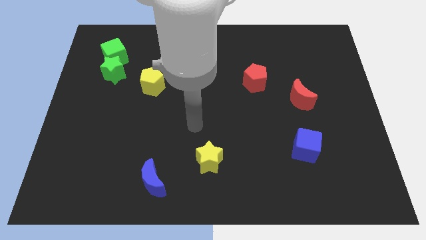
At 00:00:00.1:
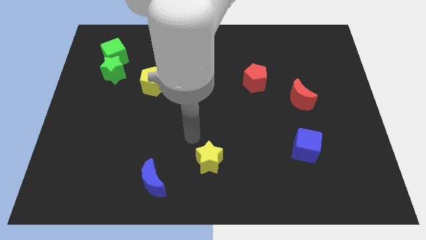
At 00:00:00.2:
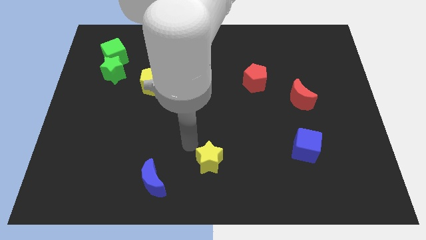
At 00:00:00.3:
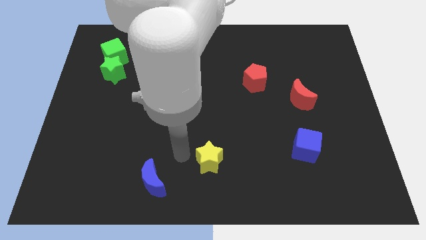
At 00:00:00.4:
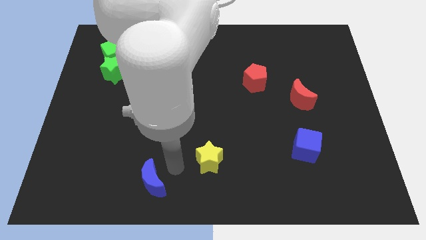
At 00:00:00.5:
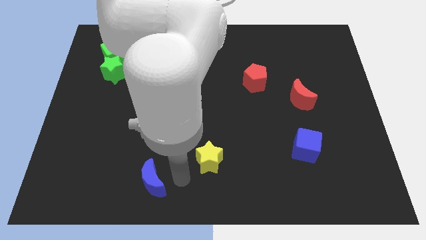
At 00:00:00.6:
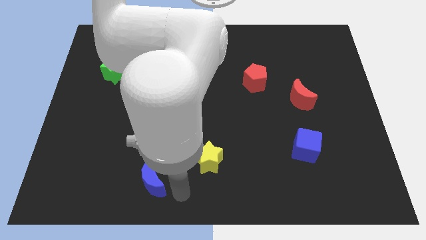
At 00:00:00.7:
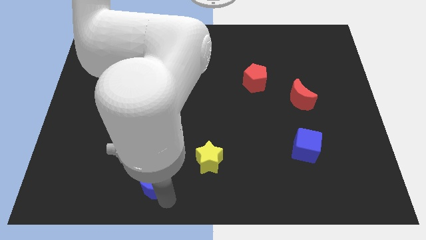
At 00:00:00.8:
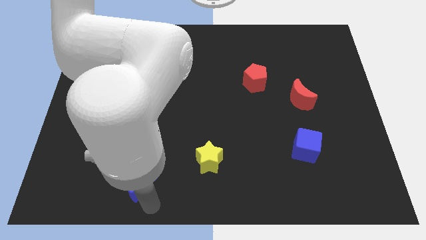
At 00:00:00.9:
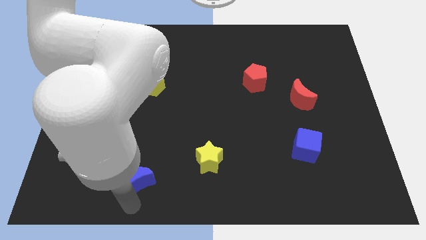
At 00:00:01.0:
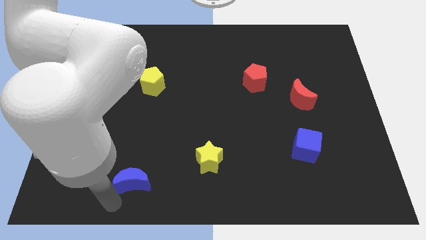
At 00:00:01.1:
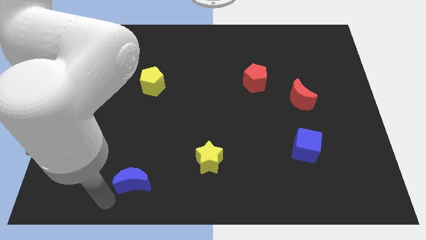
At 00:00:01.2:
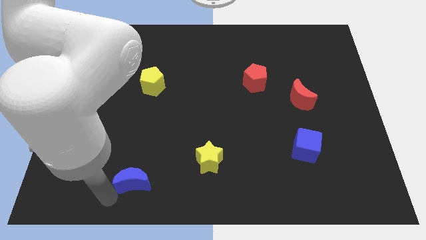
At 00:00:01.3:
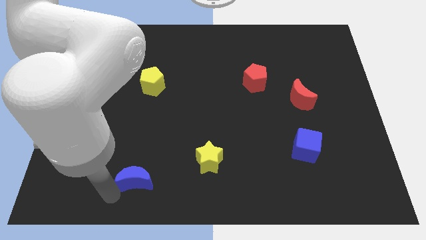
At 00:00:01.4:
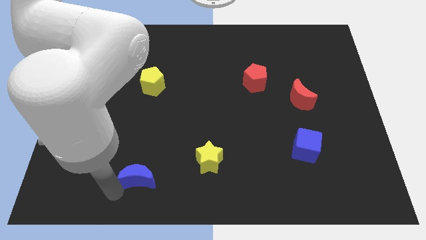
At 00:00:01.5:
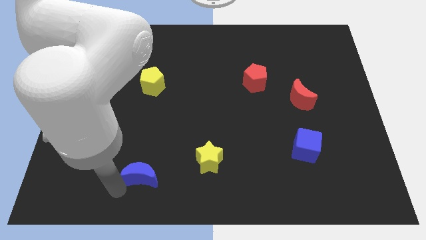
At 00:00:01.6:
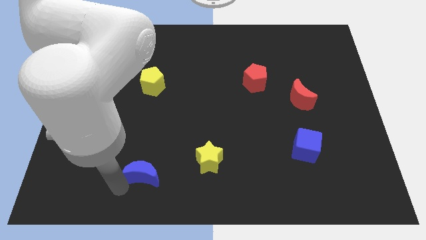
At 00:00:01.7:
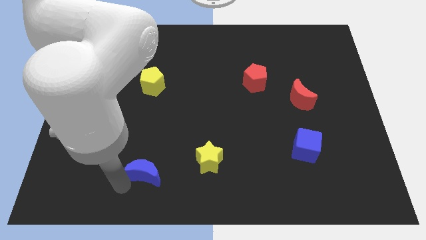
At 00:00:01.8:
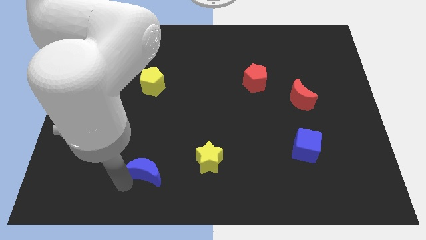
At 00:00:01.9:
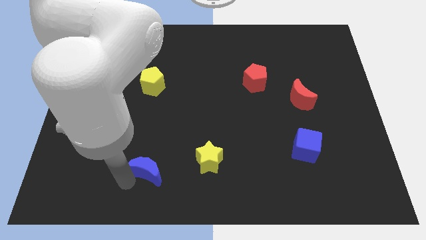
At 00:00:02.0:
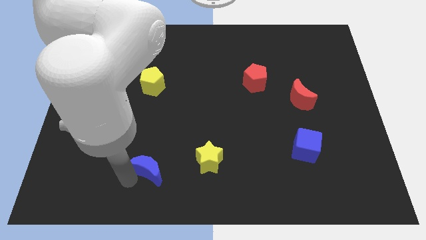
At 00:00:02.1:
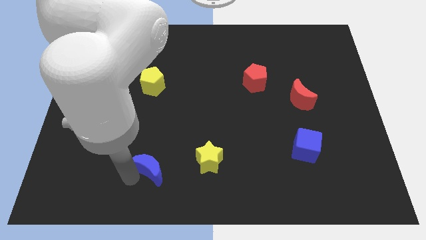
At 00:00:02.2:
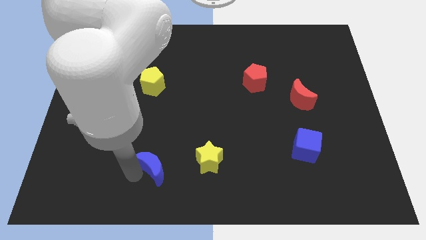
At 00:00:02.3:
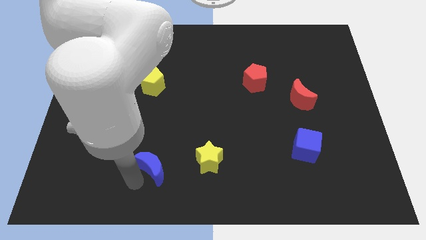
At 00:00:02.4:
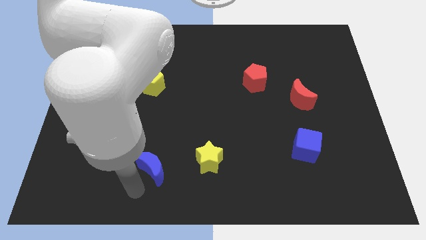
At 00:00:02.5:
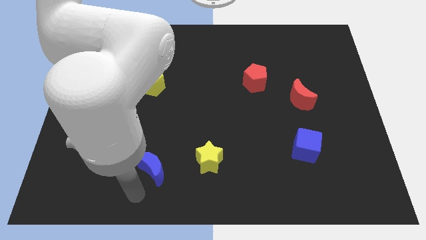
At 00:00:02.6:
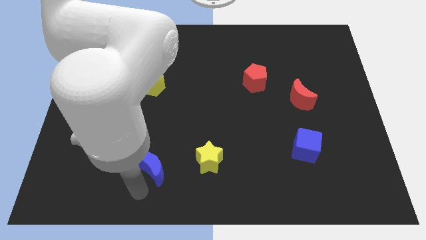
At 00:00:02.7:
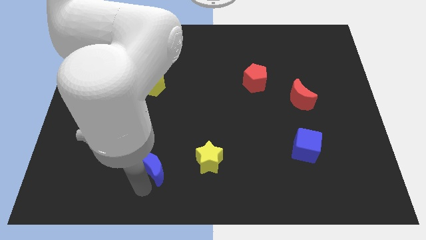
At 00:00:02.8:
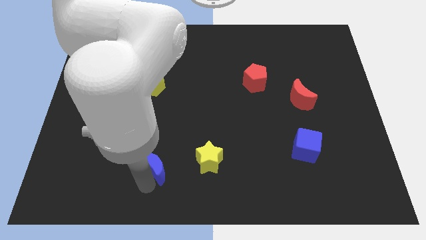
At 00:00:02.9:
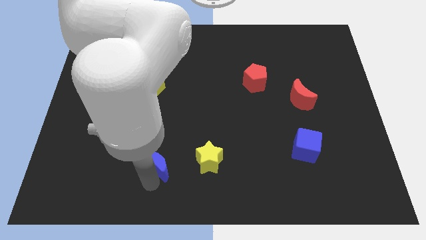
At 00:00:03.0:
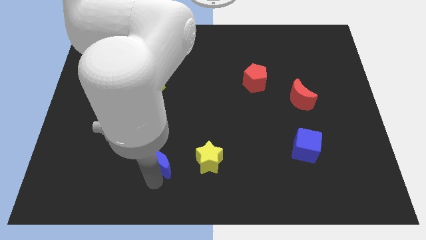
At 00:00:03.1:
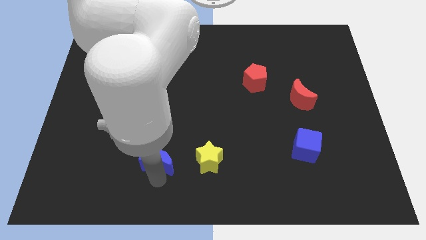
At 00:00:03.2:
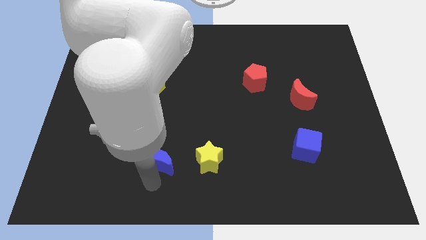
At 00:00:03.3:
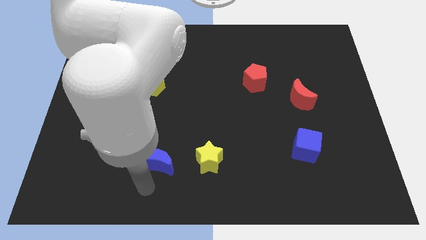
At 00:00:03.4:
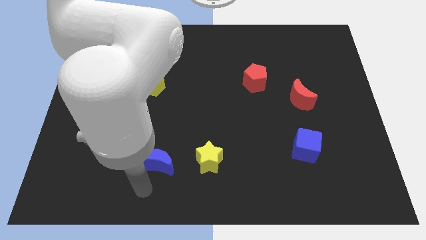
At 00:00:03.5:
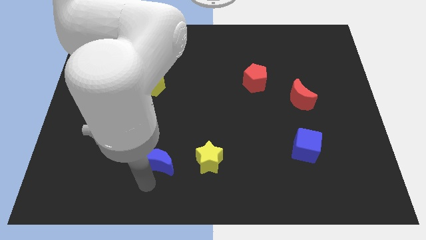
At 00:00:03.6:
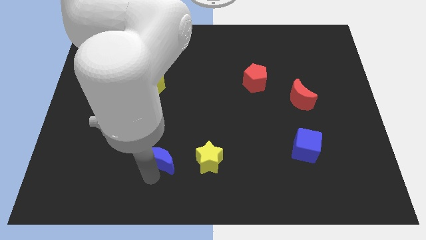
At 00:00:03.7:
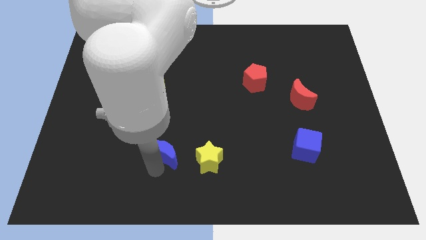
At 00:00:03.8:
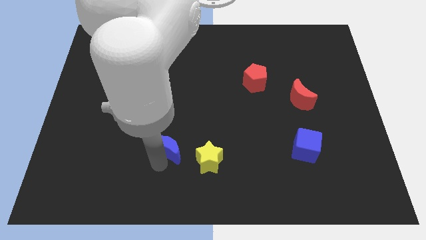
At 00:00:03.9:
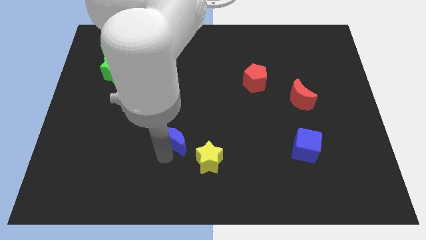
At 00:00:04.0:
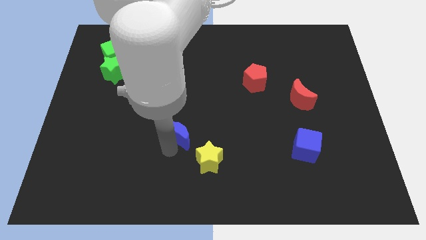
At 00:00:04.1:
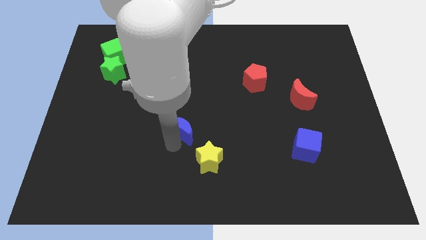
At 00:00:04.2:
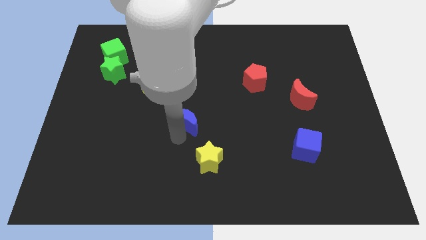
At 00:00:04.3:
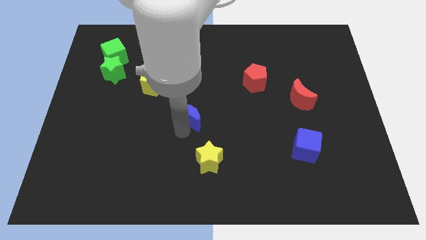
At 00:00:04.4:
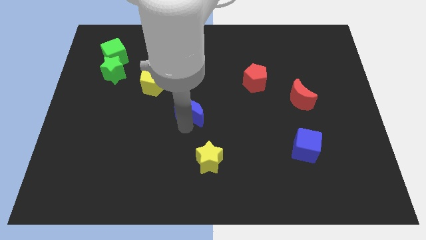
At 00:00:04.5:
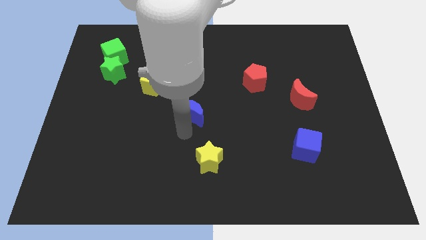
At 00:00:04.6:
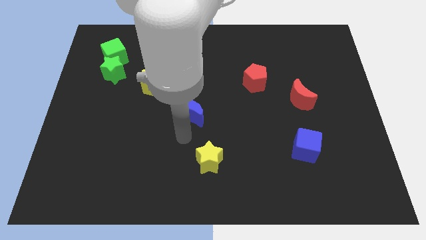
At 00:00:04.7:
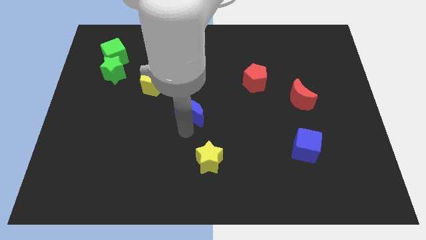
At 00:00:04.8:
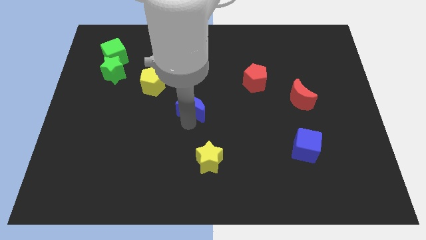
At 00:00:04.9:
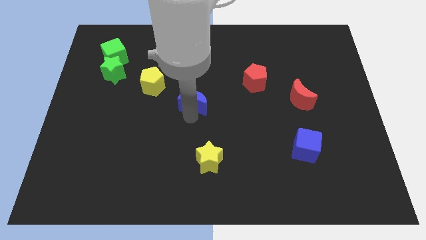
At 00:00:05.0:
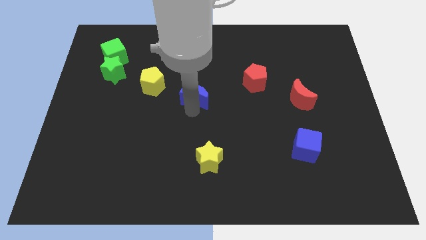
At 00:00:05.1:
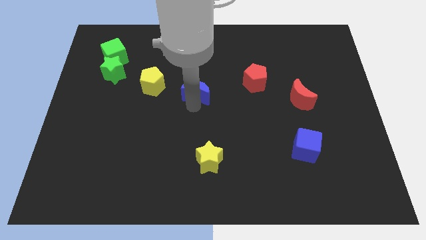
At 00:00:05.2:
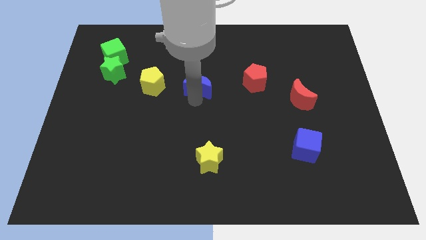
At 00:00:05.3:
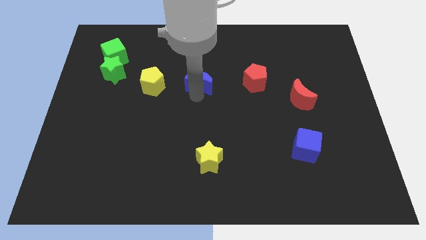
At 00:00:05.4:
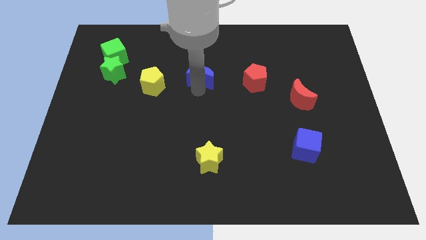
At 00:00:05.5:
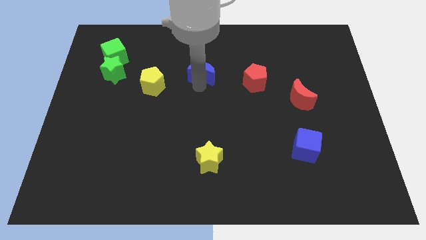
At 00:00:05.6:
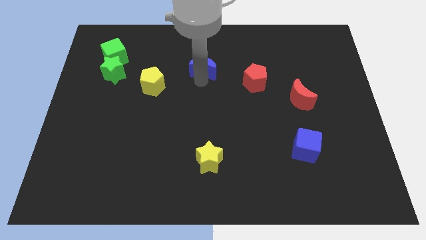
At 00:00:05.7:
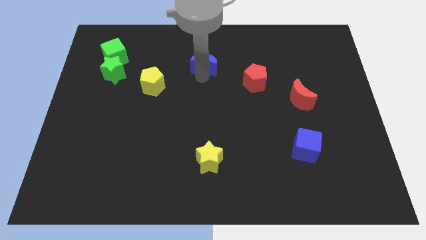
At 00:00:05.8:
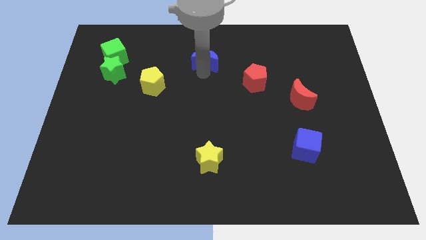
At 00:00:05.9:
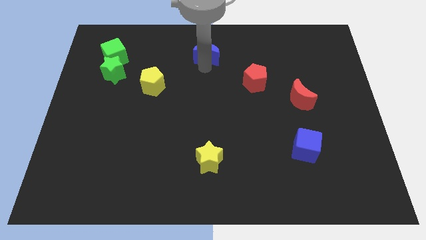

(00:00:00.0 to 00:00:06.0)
push the blue moon to the top side

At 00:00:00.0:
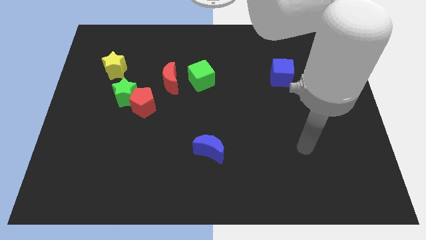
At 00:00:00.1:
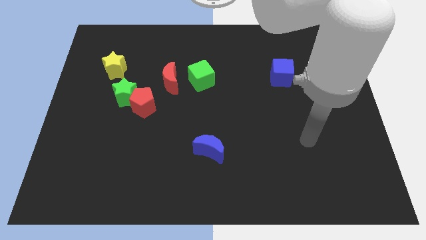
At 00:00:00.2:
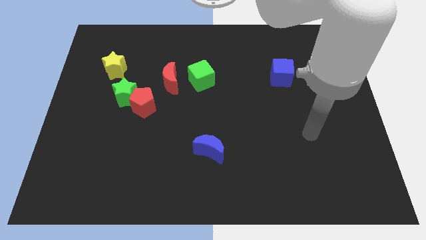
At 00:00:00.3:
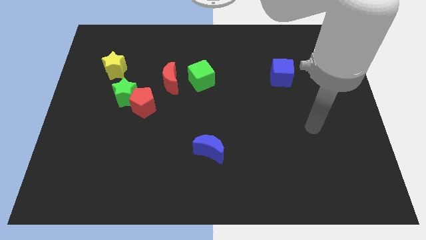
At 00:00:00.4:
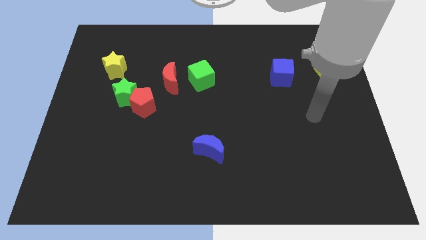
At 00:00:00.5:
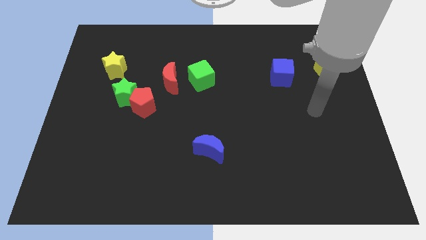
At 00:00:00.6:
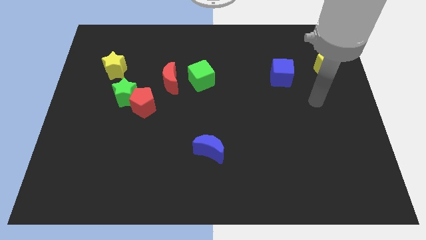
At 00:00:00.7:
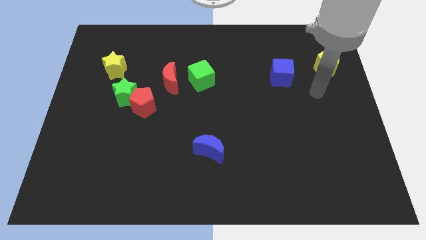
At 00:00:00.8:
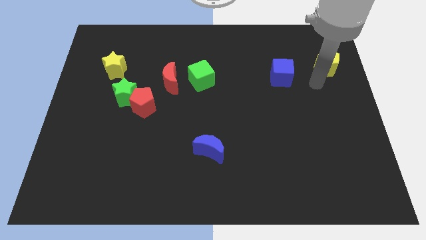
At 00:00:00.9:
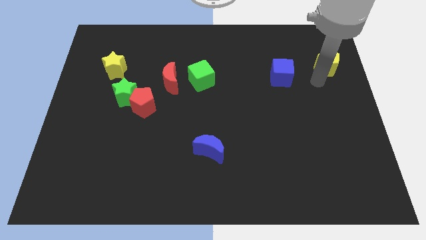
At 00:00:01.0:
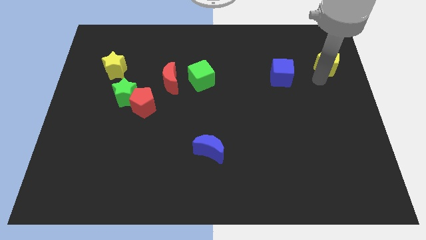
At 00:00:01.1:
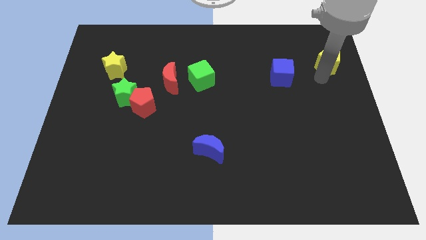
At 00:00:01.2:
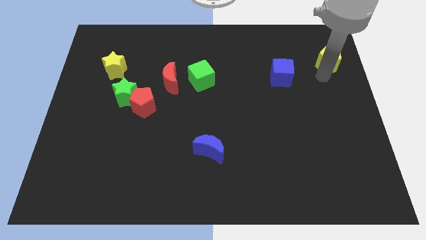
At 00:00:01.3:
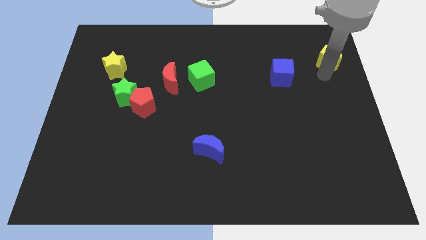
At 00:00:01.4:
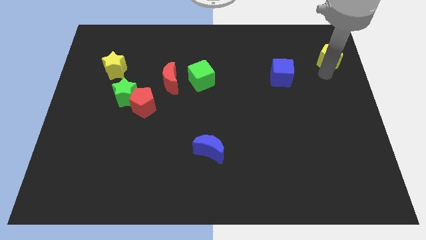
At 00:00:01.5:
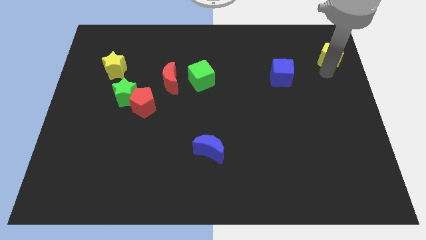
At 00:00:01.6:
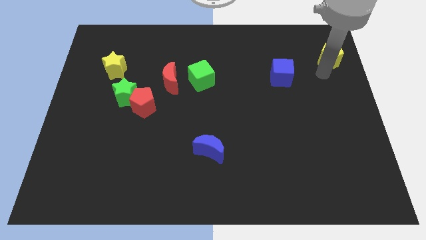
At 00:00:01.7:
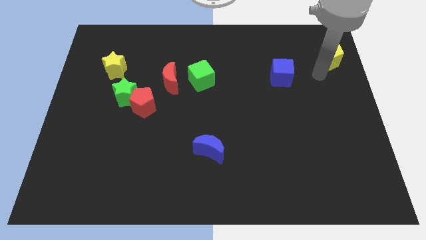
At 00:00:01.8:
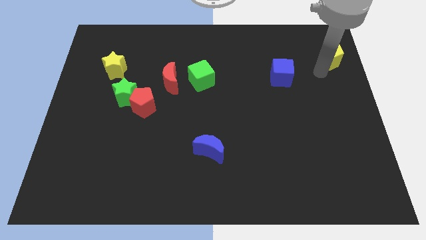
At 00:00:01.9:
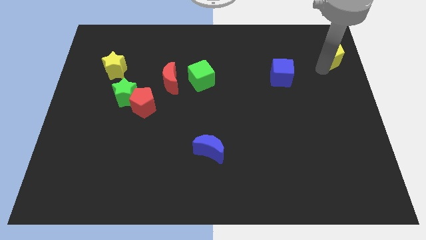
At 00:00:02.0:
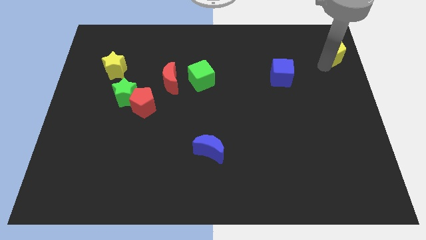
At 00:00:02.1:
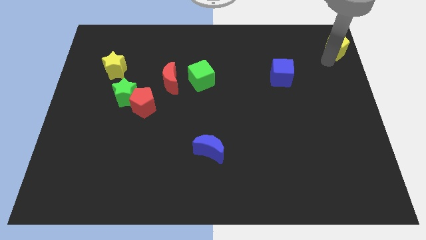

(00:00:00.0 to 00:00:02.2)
move the yellow pentagon to the top right of the board
